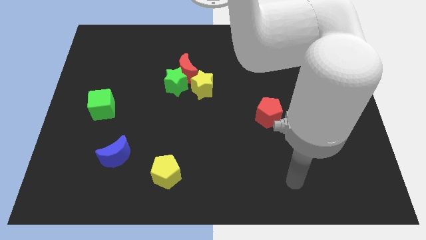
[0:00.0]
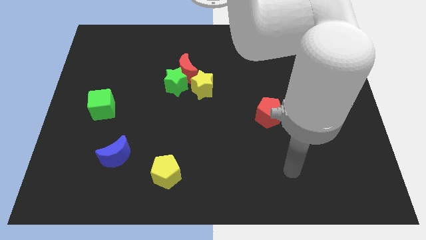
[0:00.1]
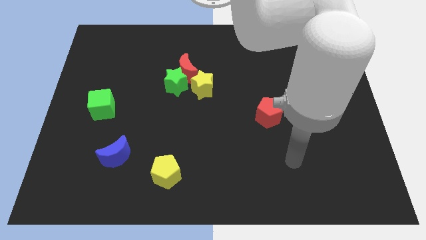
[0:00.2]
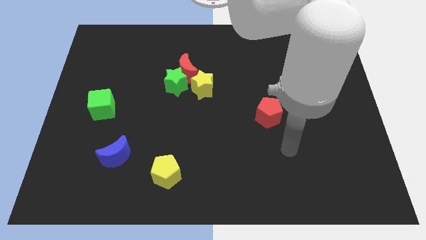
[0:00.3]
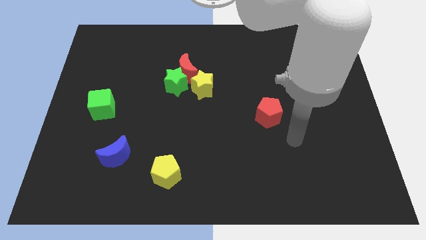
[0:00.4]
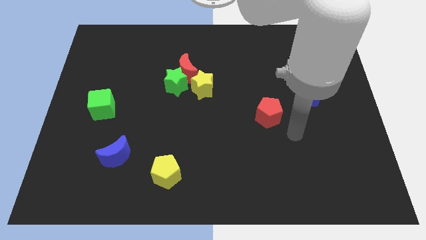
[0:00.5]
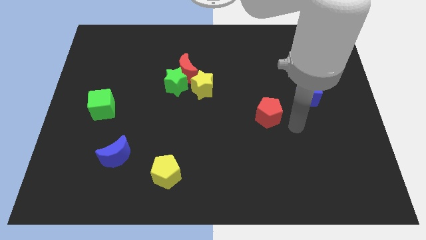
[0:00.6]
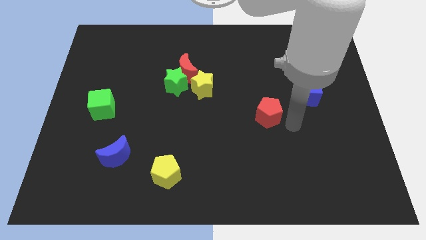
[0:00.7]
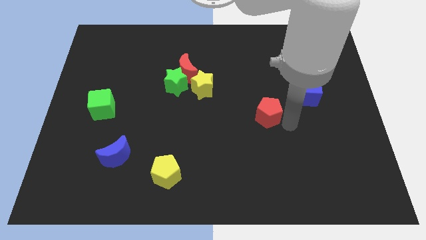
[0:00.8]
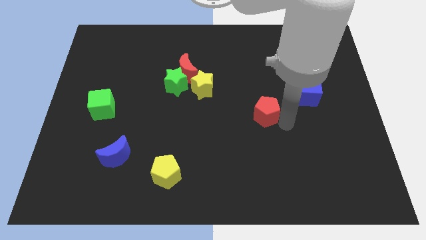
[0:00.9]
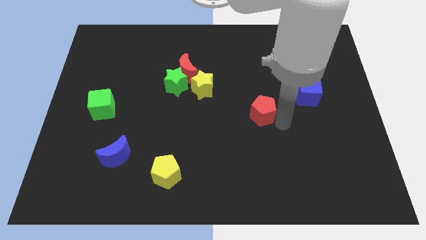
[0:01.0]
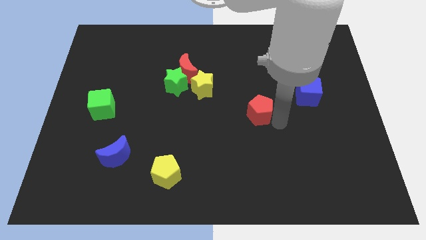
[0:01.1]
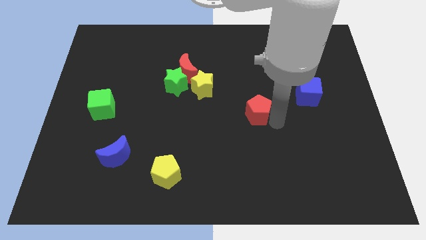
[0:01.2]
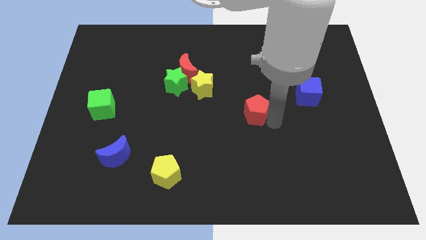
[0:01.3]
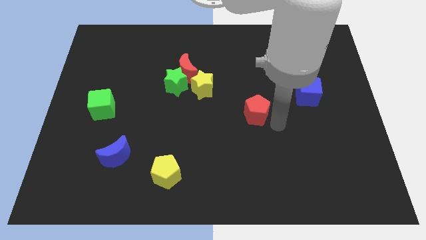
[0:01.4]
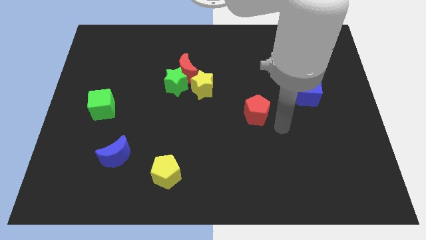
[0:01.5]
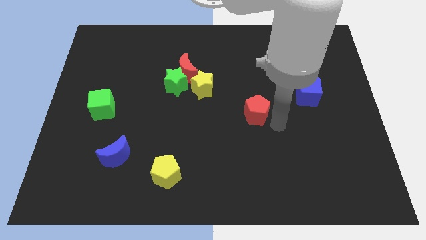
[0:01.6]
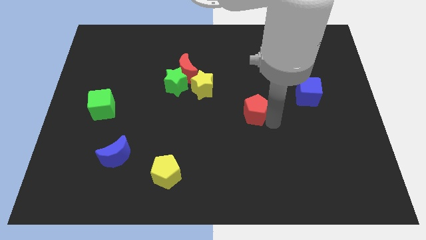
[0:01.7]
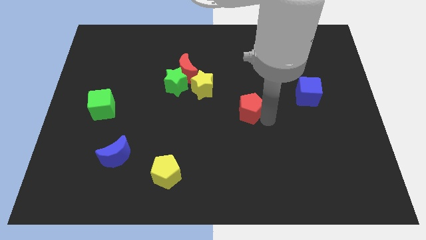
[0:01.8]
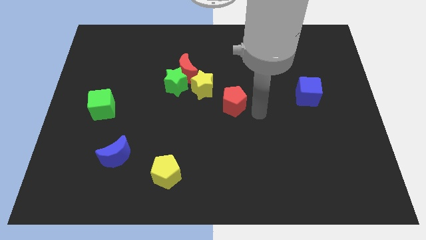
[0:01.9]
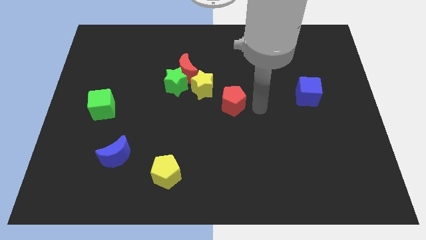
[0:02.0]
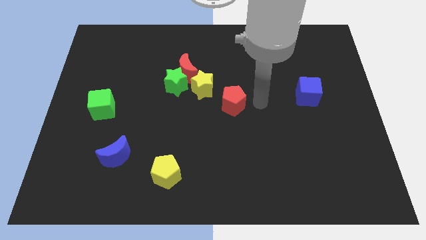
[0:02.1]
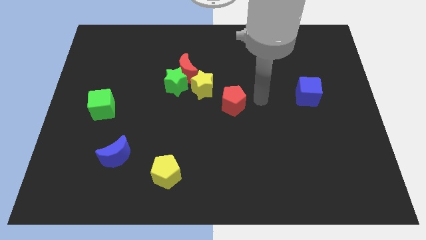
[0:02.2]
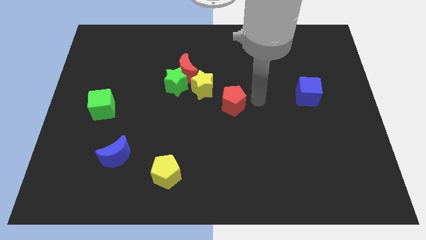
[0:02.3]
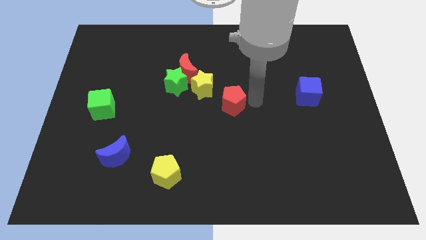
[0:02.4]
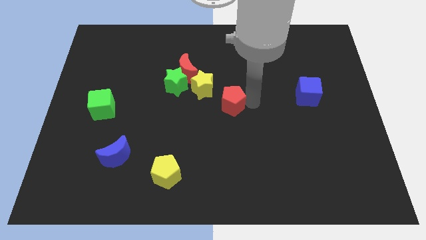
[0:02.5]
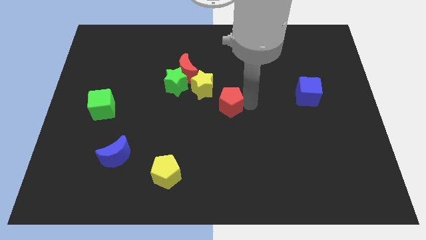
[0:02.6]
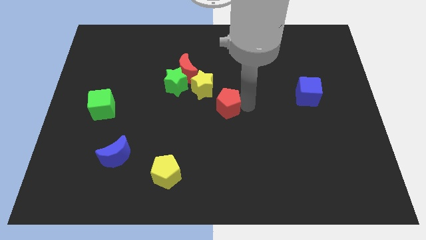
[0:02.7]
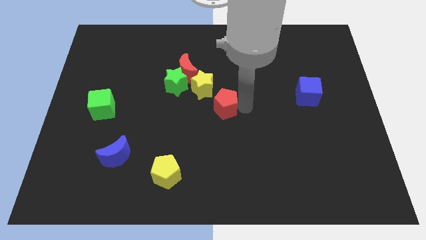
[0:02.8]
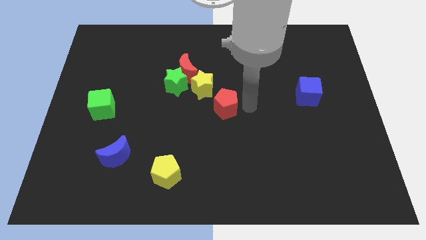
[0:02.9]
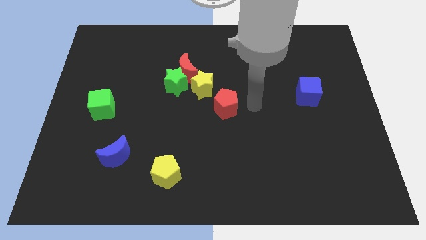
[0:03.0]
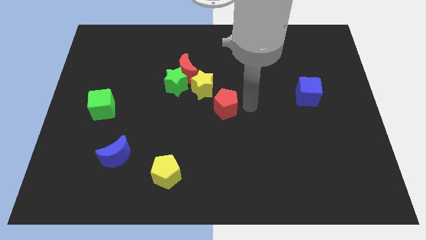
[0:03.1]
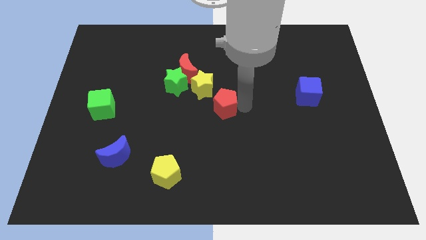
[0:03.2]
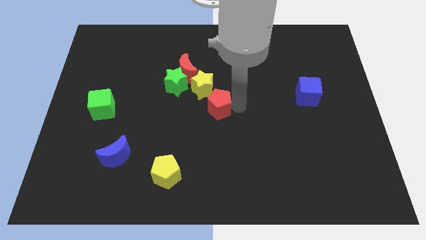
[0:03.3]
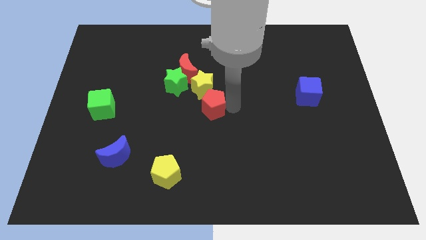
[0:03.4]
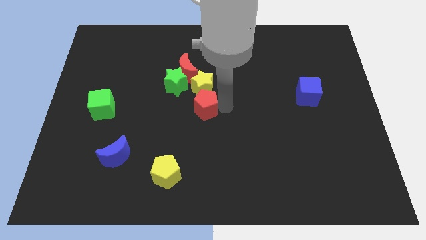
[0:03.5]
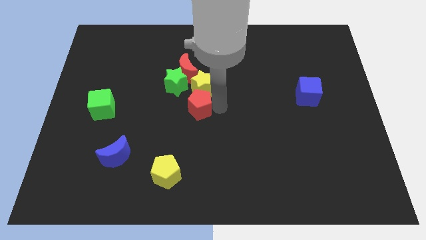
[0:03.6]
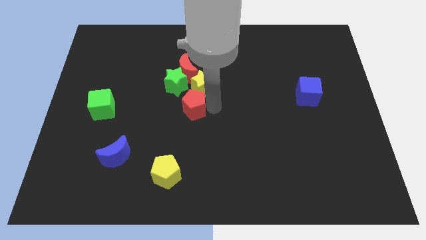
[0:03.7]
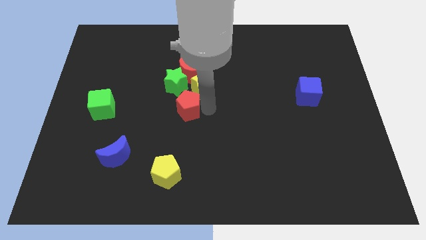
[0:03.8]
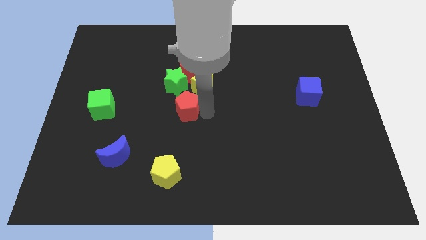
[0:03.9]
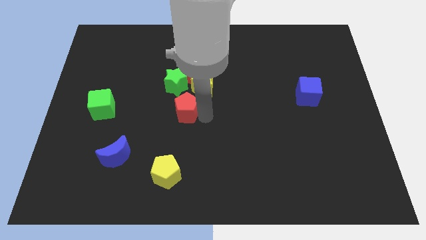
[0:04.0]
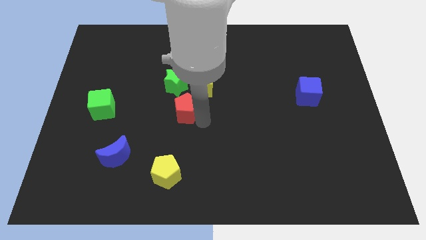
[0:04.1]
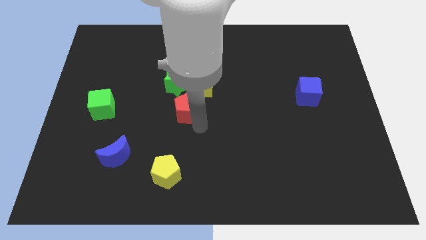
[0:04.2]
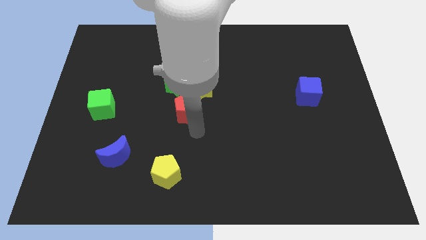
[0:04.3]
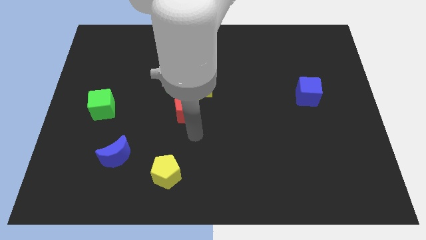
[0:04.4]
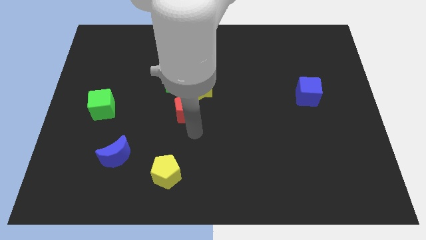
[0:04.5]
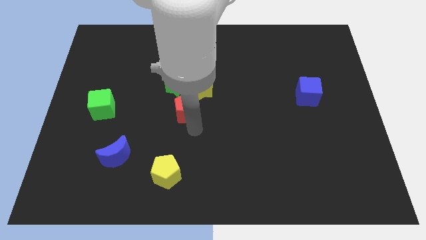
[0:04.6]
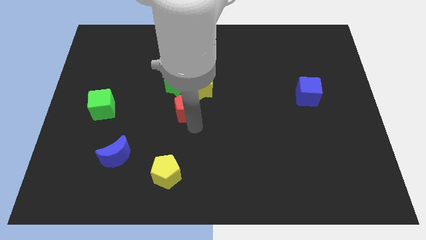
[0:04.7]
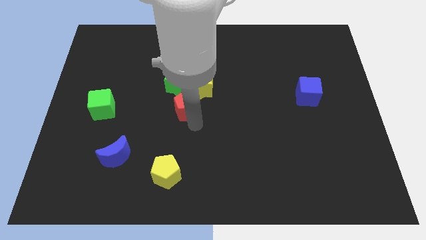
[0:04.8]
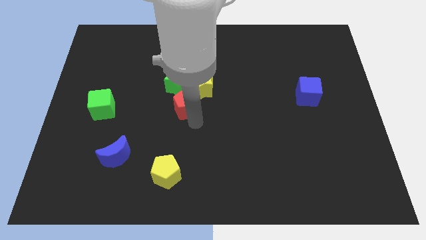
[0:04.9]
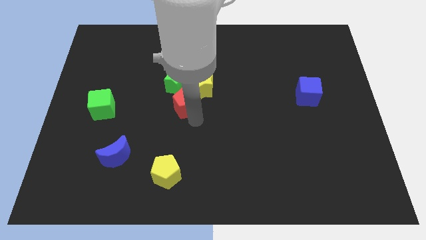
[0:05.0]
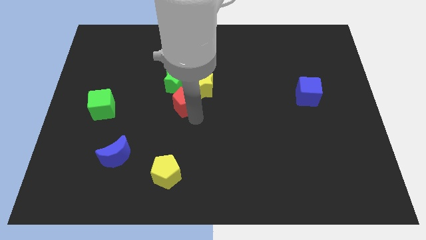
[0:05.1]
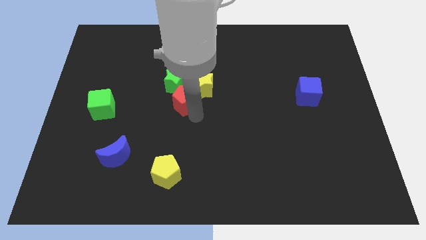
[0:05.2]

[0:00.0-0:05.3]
push the red pentagon towards the green star

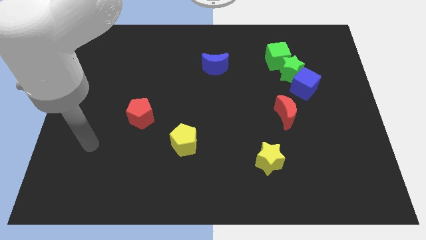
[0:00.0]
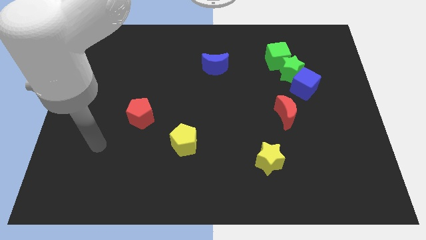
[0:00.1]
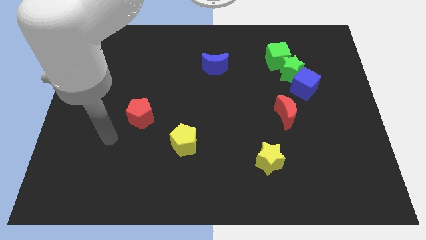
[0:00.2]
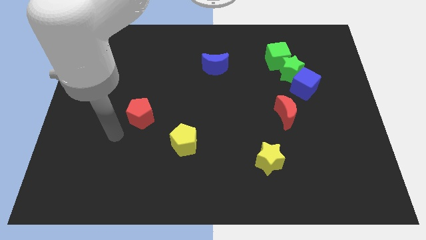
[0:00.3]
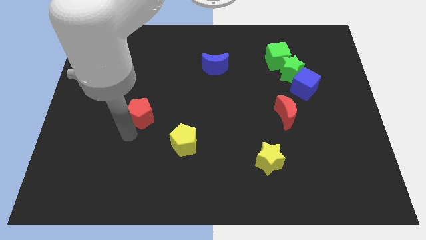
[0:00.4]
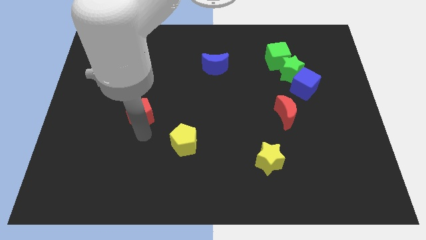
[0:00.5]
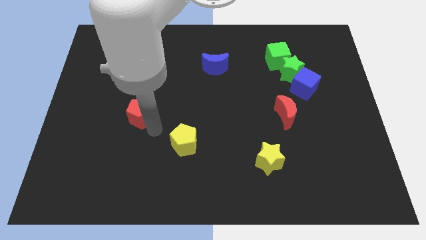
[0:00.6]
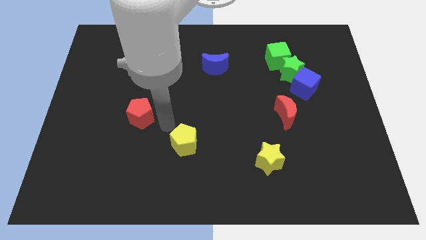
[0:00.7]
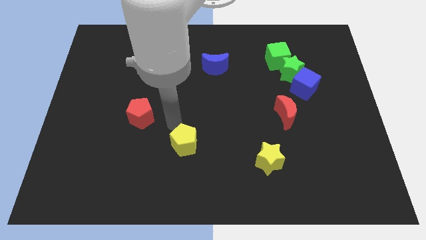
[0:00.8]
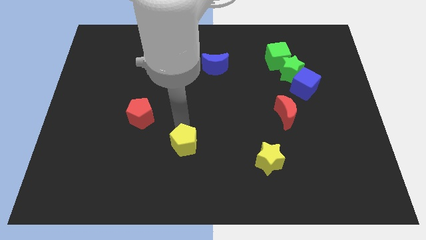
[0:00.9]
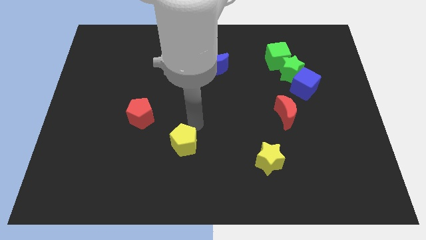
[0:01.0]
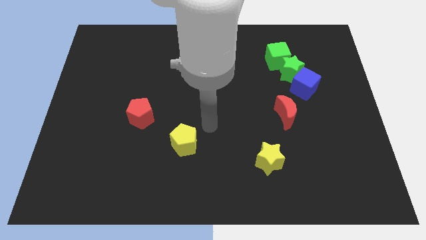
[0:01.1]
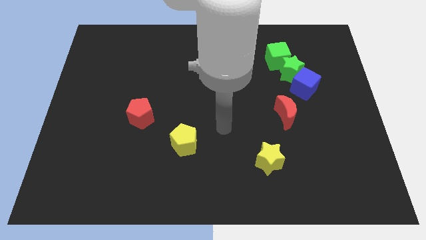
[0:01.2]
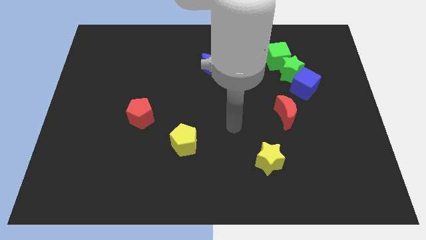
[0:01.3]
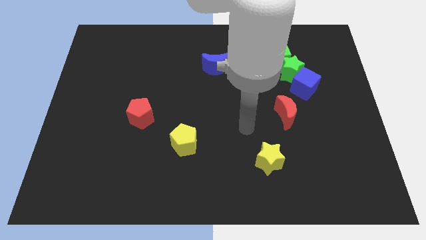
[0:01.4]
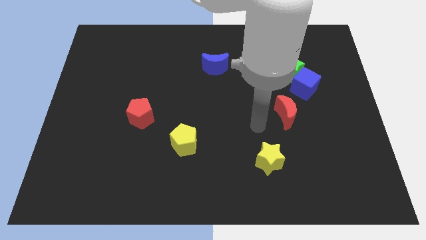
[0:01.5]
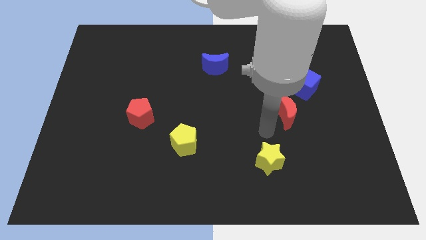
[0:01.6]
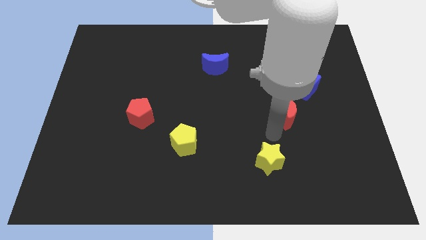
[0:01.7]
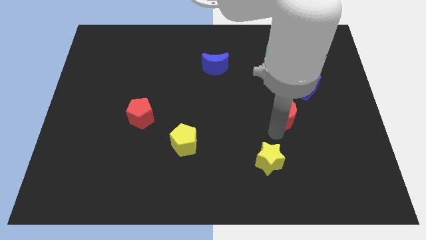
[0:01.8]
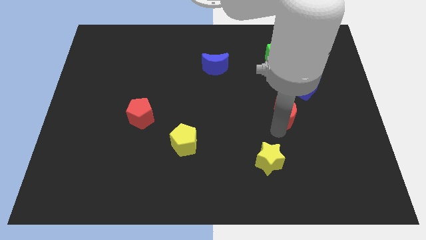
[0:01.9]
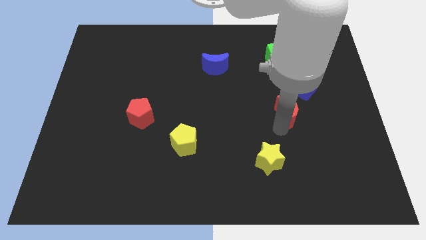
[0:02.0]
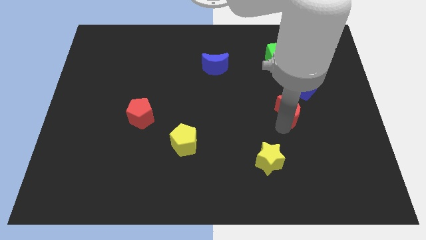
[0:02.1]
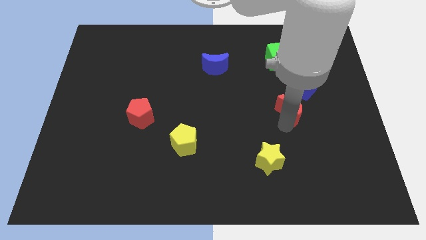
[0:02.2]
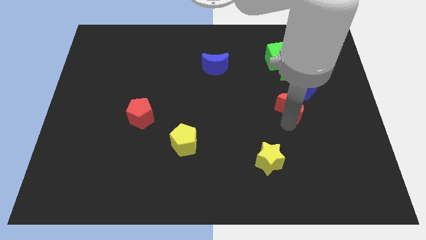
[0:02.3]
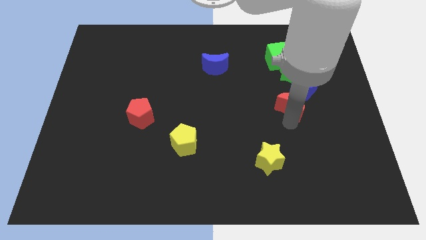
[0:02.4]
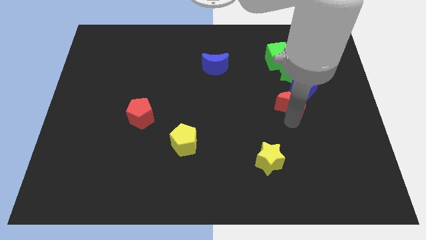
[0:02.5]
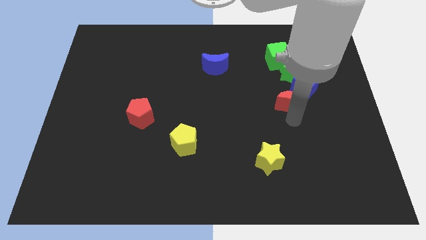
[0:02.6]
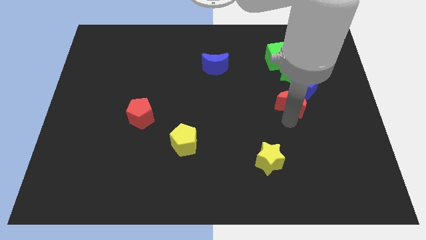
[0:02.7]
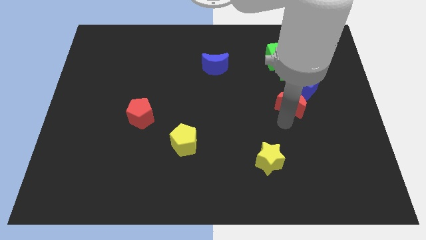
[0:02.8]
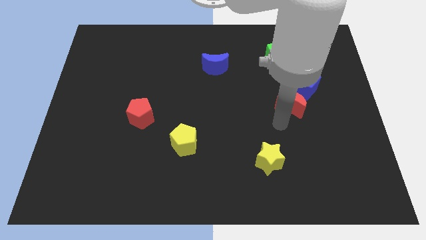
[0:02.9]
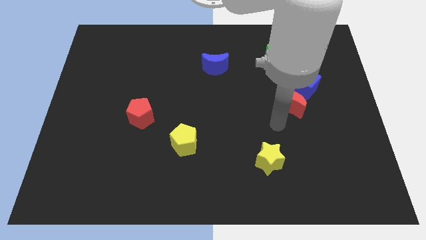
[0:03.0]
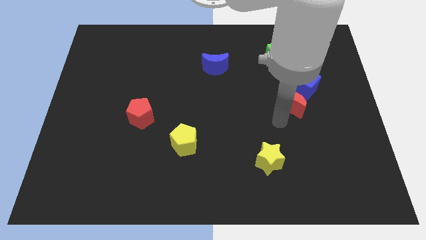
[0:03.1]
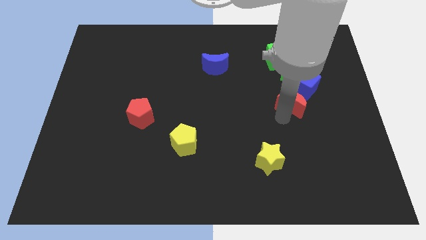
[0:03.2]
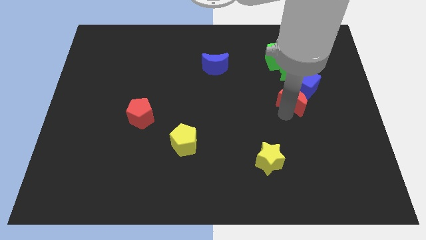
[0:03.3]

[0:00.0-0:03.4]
slide the red moon close to the blue cube
